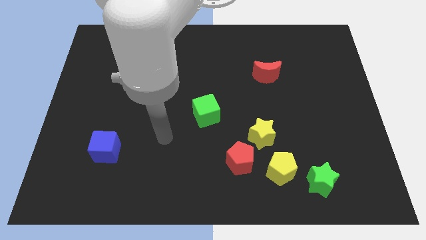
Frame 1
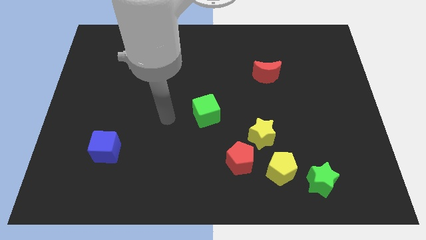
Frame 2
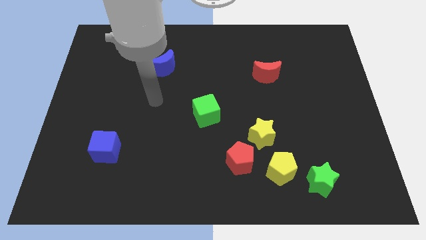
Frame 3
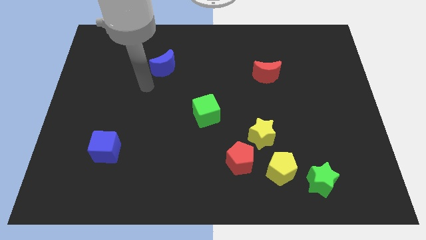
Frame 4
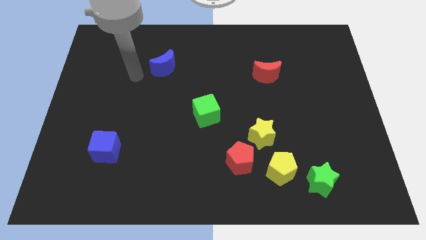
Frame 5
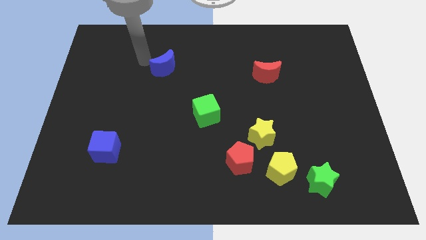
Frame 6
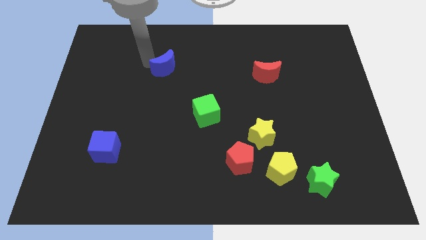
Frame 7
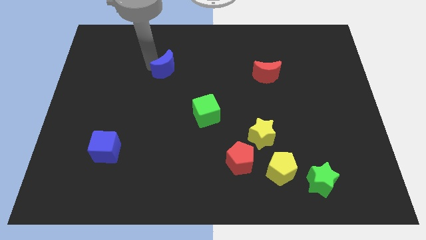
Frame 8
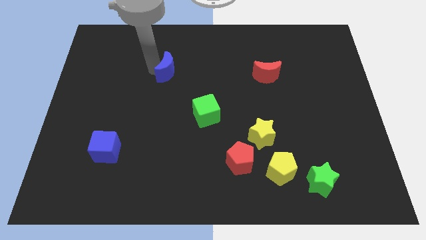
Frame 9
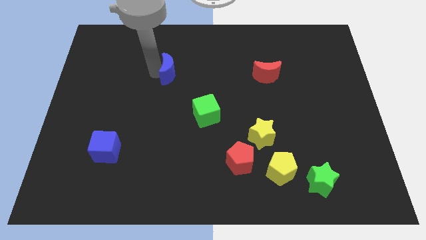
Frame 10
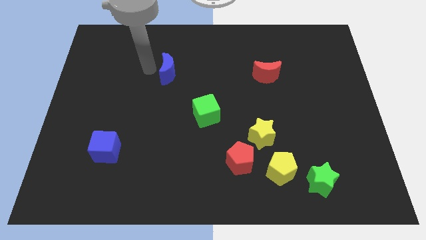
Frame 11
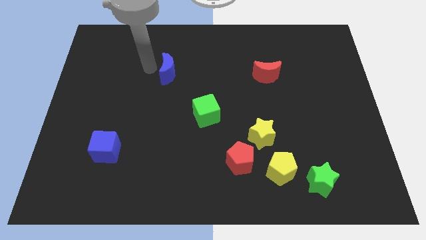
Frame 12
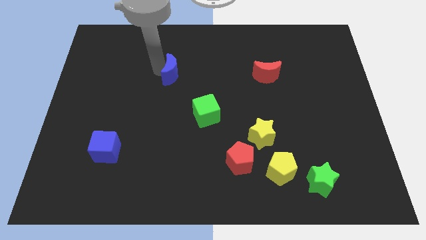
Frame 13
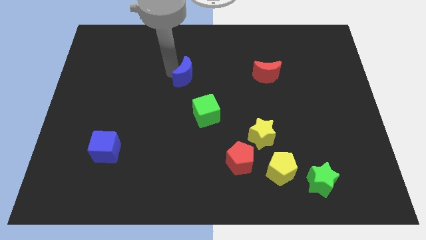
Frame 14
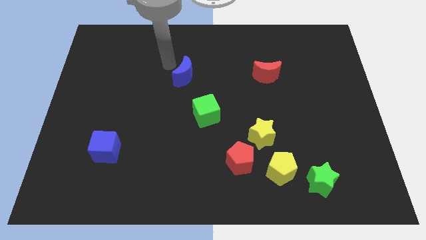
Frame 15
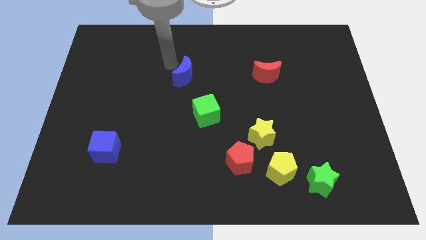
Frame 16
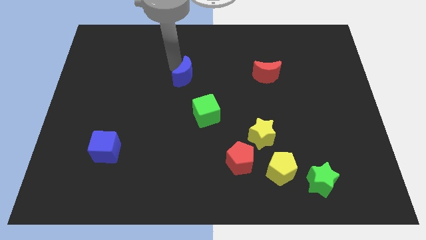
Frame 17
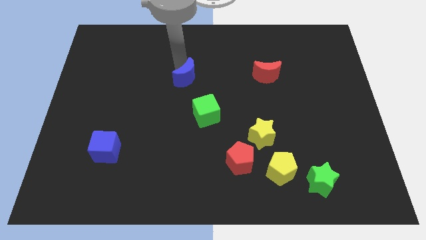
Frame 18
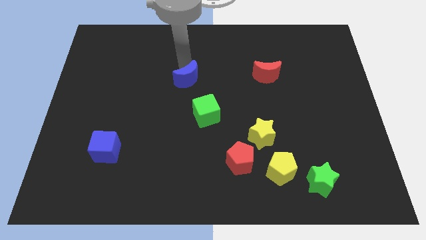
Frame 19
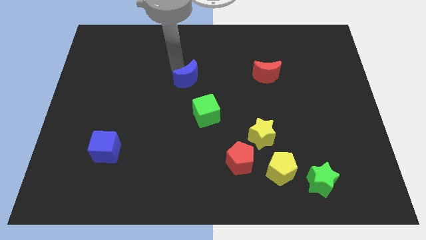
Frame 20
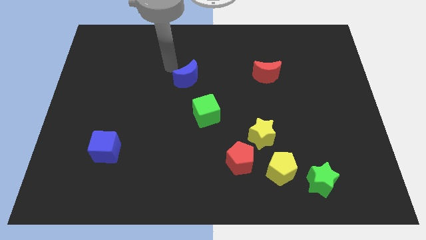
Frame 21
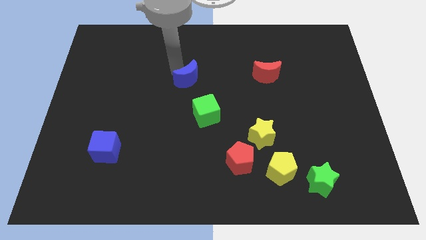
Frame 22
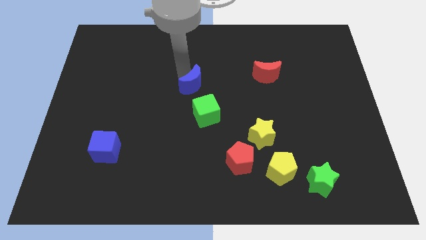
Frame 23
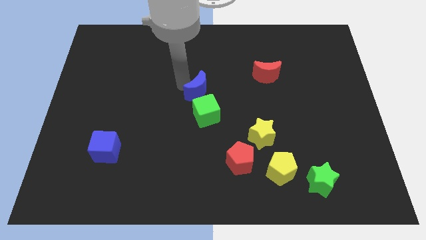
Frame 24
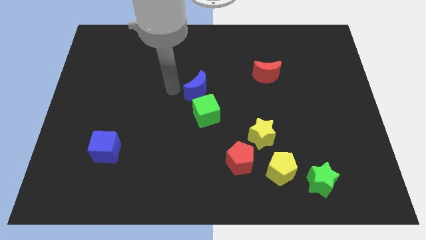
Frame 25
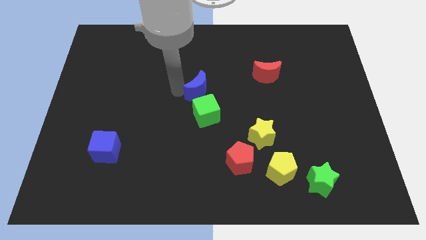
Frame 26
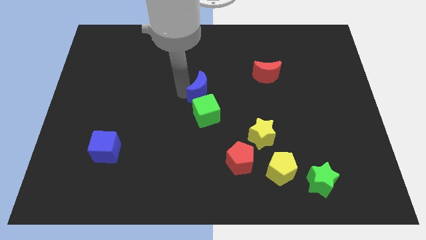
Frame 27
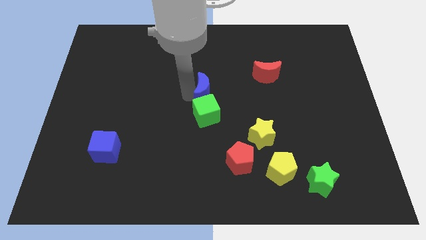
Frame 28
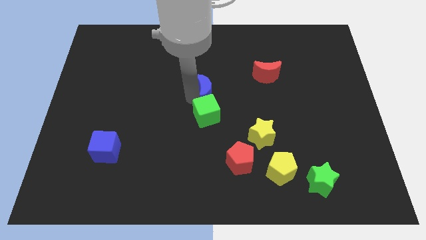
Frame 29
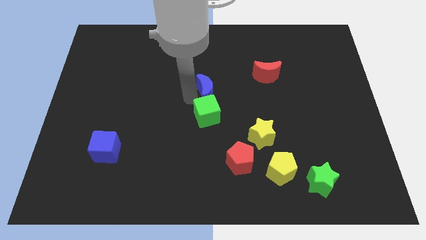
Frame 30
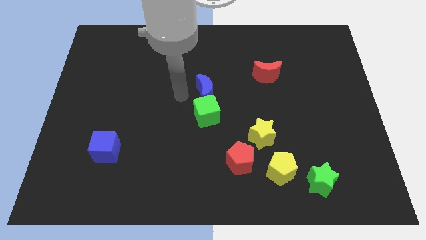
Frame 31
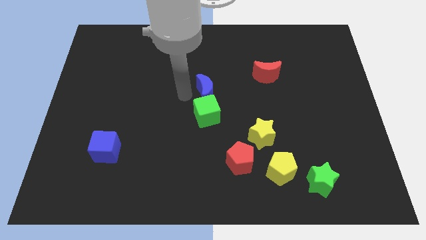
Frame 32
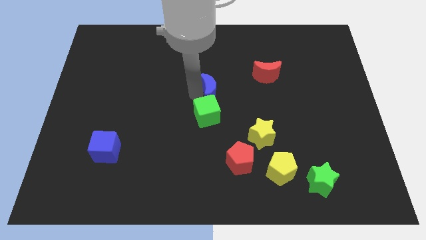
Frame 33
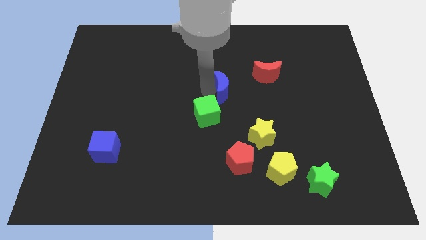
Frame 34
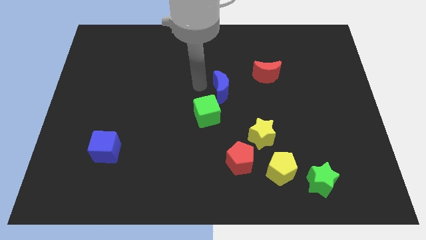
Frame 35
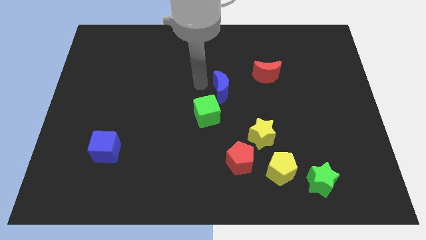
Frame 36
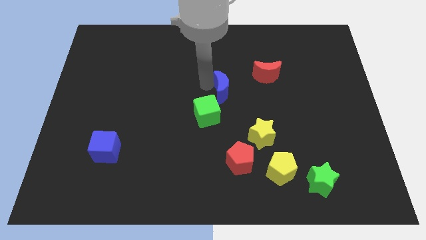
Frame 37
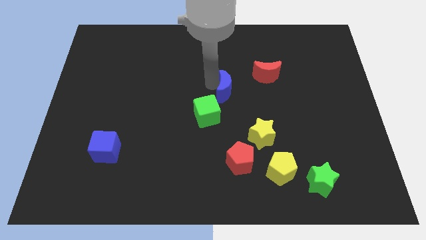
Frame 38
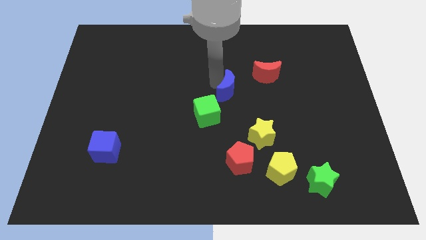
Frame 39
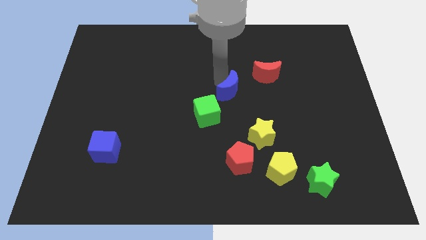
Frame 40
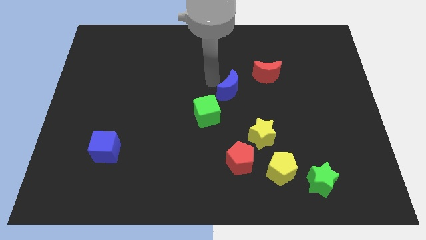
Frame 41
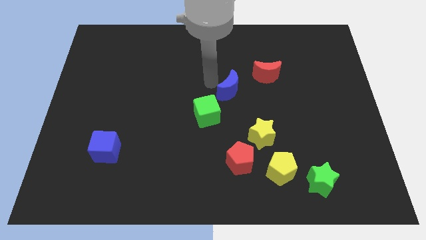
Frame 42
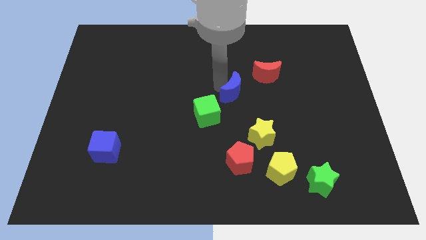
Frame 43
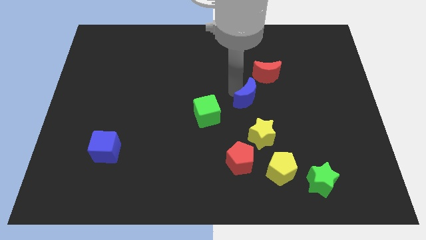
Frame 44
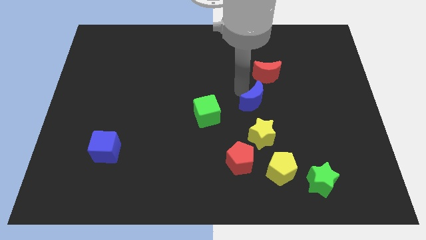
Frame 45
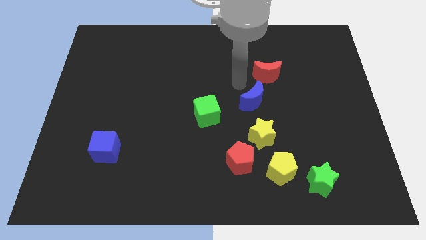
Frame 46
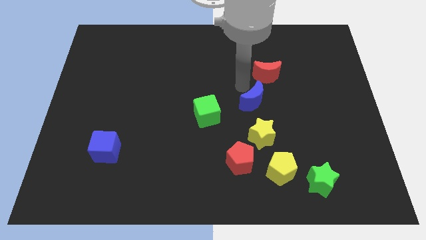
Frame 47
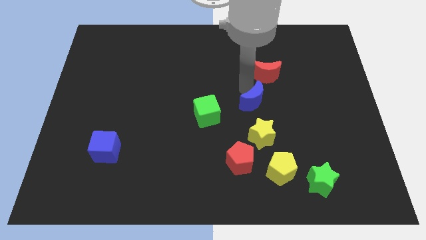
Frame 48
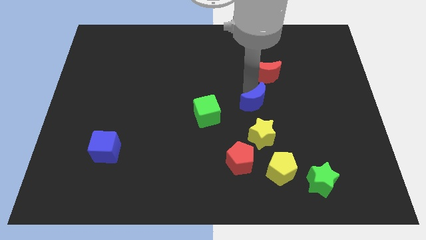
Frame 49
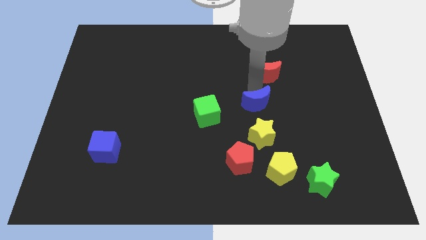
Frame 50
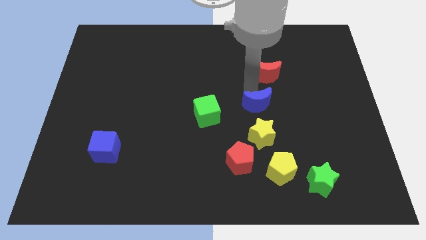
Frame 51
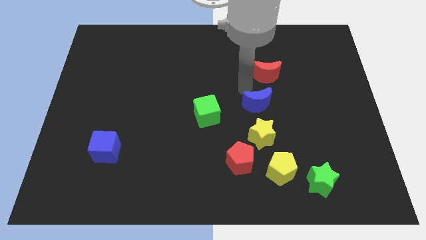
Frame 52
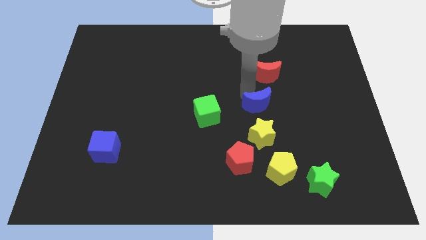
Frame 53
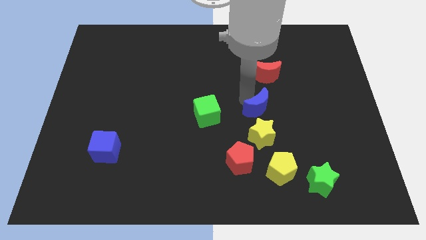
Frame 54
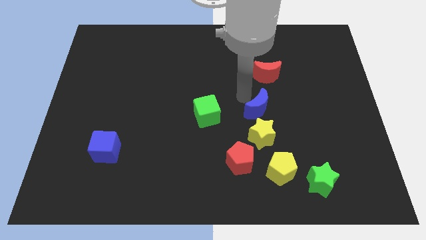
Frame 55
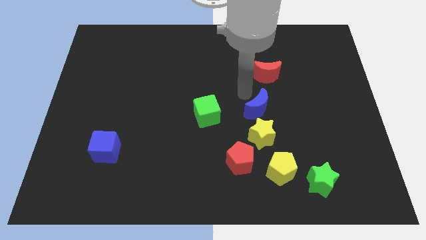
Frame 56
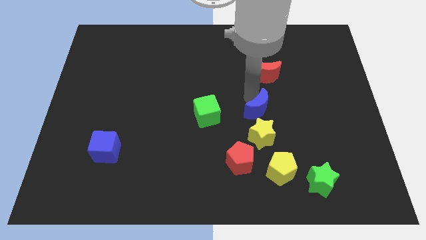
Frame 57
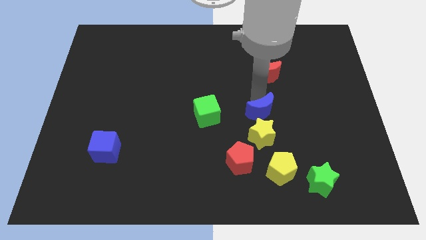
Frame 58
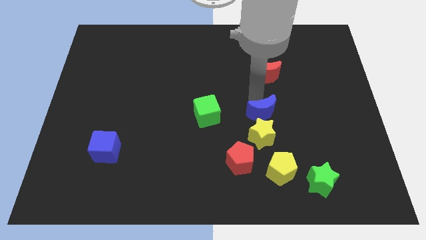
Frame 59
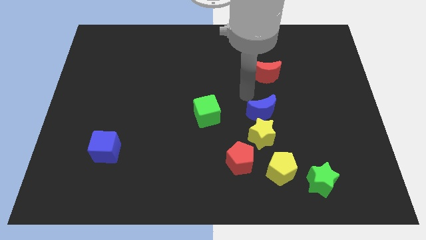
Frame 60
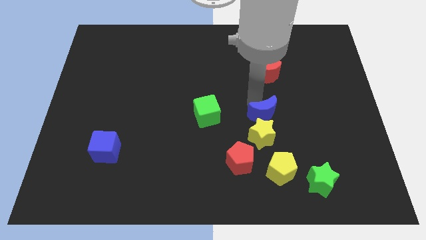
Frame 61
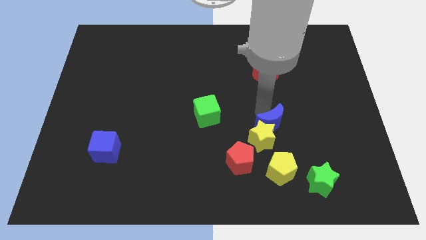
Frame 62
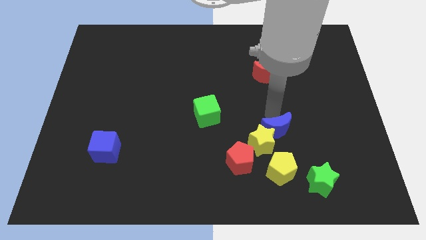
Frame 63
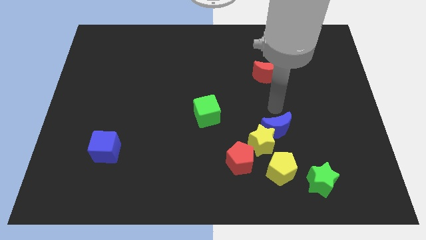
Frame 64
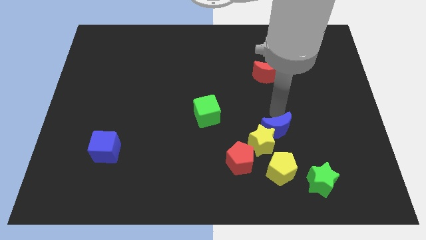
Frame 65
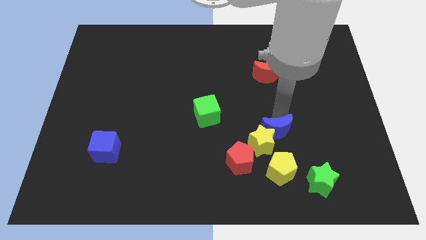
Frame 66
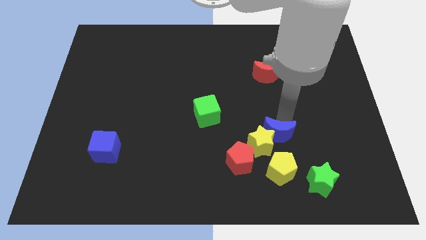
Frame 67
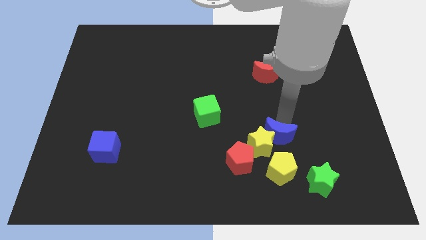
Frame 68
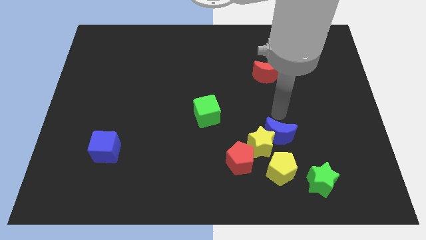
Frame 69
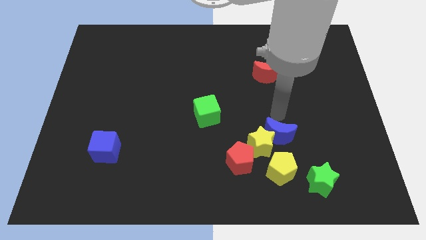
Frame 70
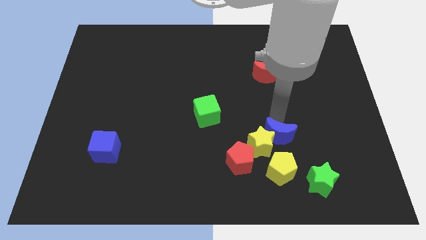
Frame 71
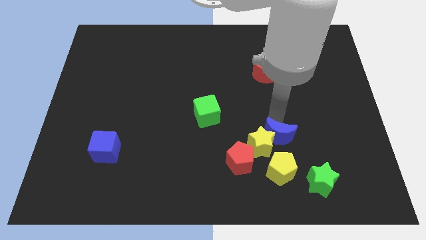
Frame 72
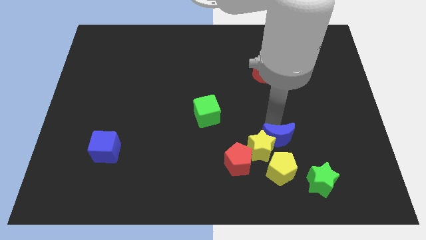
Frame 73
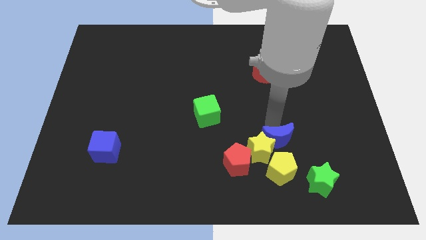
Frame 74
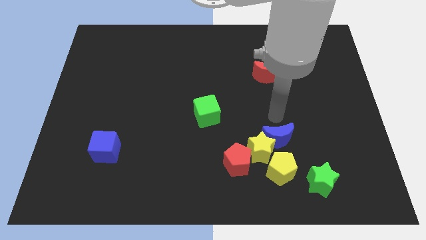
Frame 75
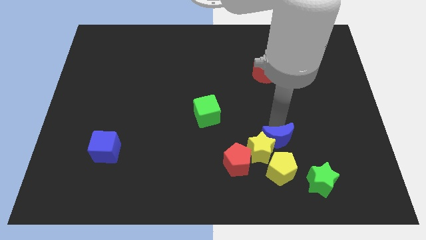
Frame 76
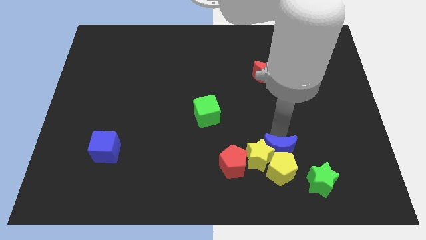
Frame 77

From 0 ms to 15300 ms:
move the blue moon to the yellow pentagon
